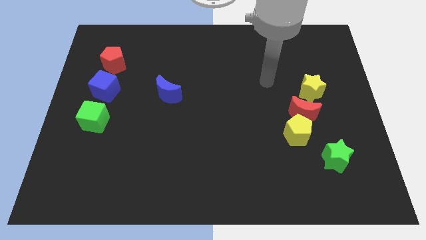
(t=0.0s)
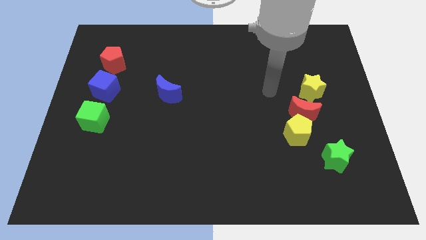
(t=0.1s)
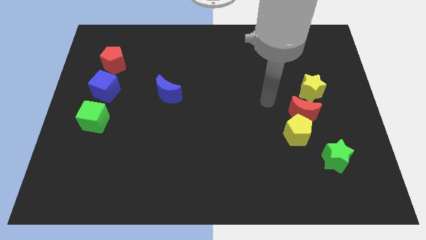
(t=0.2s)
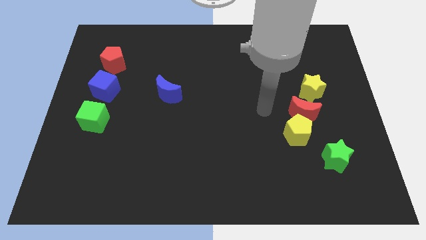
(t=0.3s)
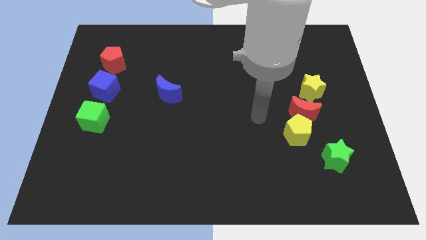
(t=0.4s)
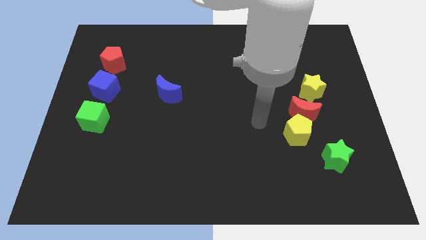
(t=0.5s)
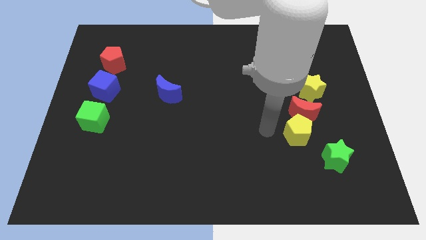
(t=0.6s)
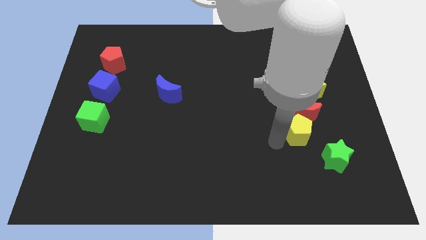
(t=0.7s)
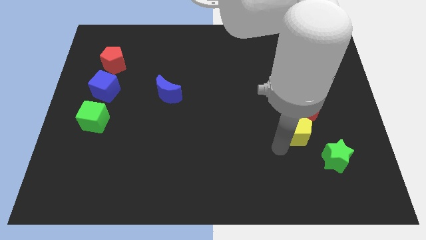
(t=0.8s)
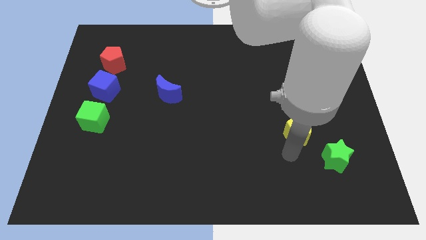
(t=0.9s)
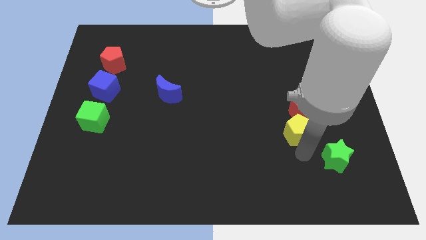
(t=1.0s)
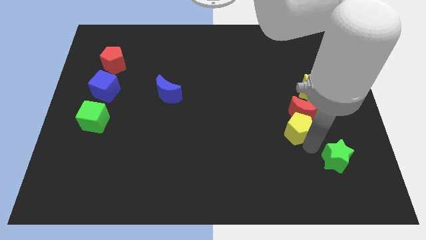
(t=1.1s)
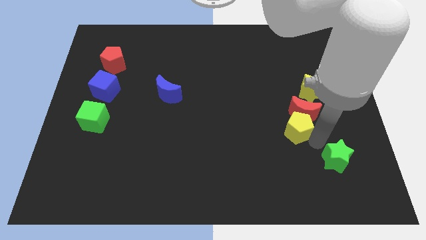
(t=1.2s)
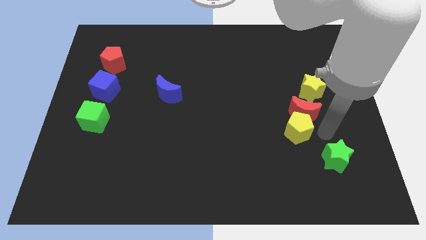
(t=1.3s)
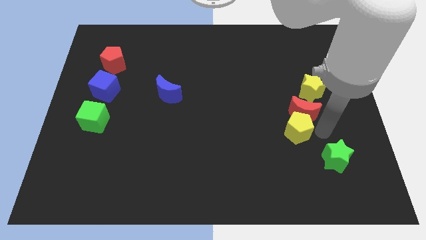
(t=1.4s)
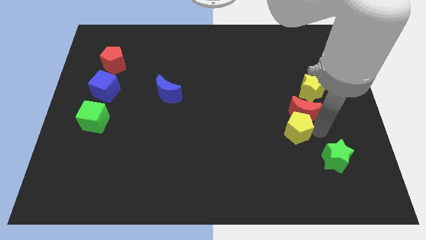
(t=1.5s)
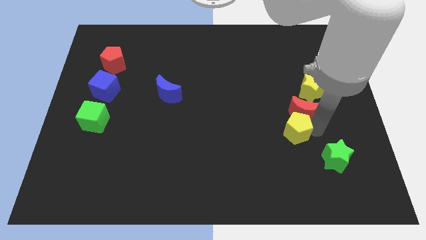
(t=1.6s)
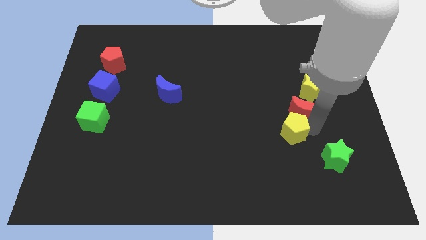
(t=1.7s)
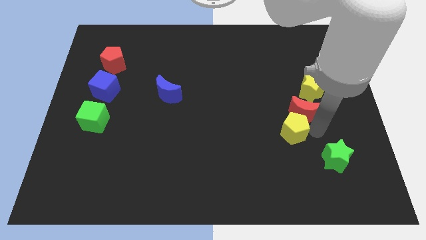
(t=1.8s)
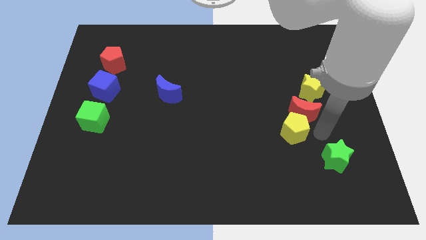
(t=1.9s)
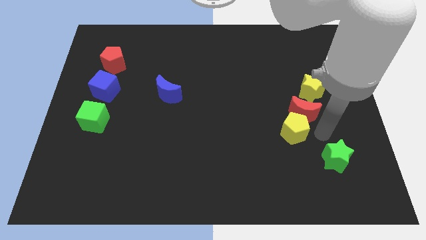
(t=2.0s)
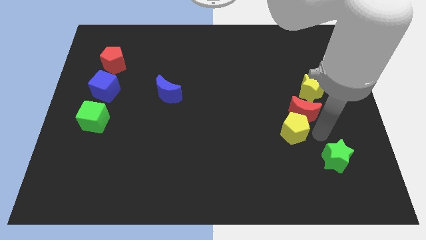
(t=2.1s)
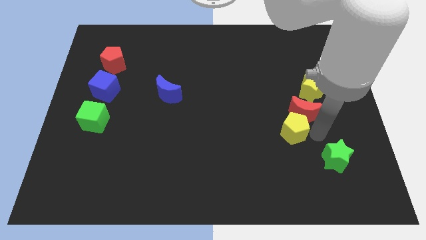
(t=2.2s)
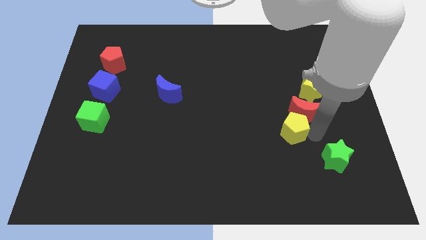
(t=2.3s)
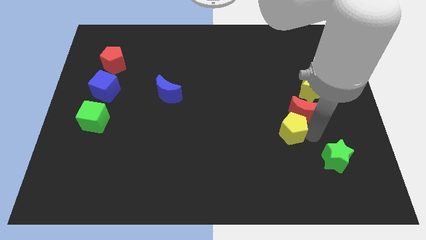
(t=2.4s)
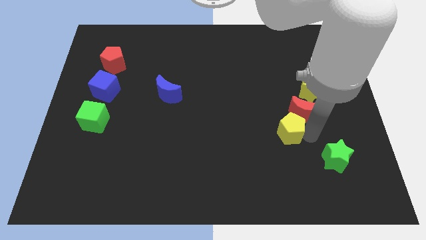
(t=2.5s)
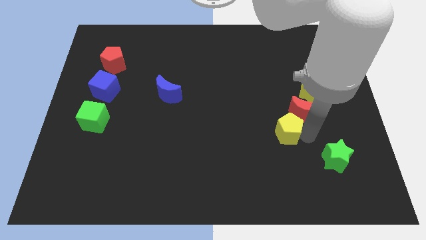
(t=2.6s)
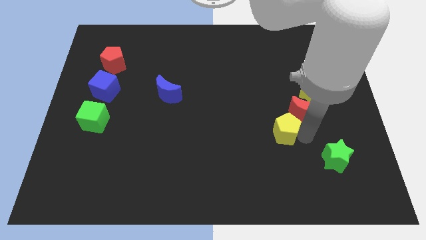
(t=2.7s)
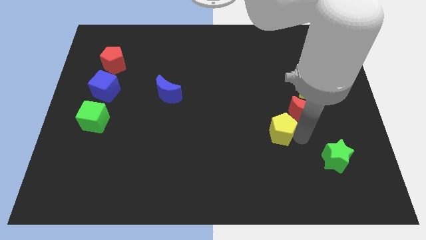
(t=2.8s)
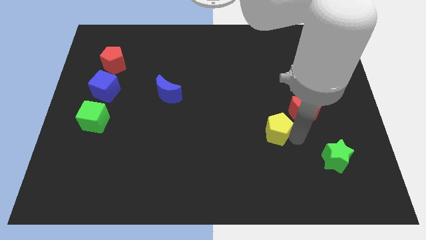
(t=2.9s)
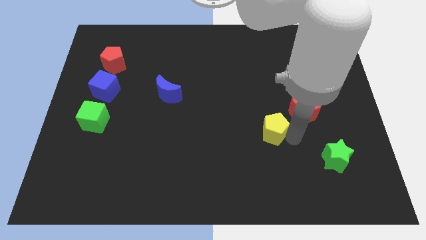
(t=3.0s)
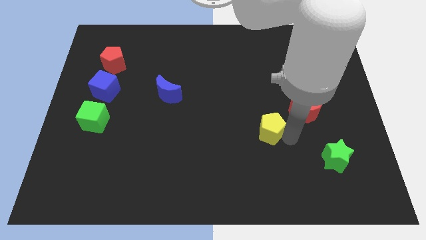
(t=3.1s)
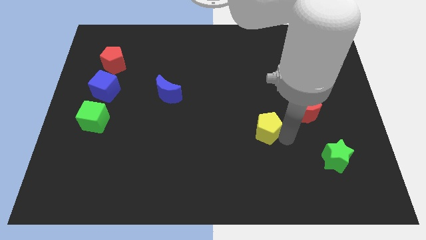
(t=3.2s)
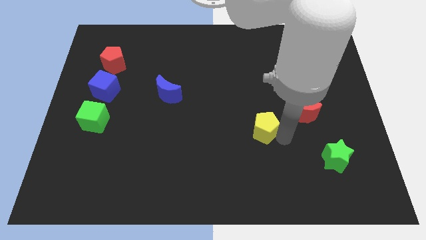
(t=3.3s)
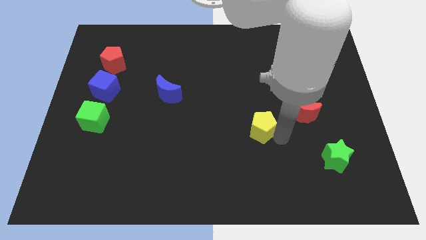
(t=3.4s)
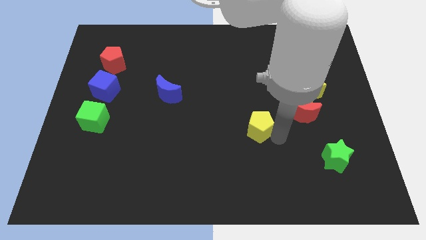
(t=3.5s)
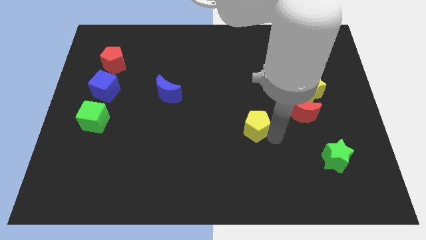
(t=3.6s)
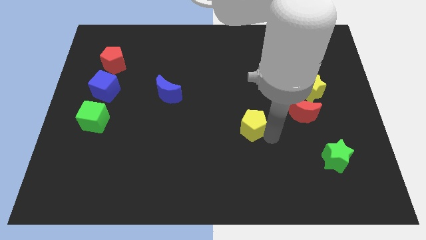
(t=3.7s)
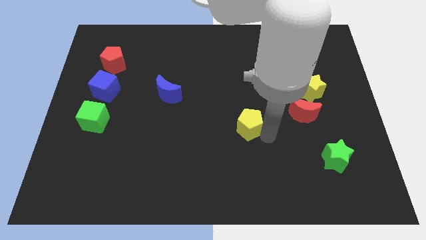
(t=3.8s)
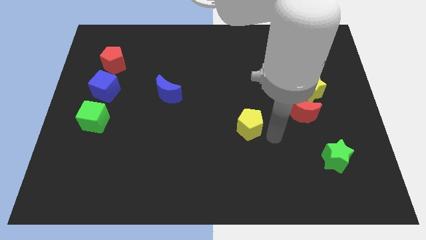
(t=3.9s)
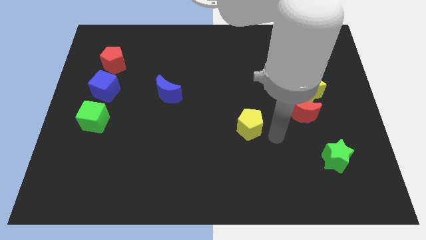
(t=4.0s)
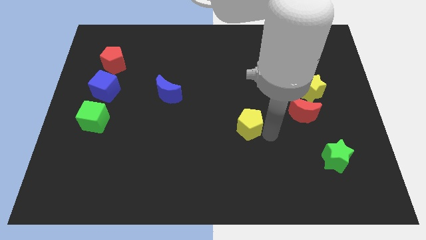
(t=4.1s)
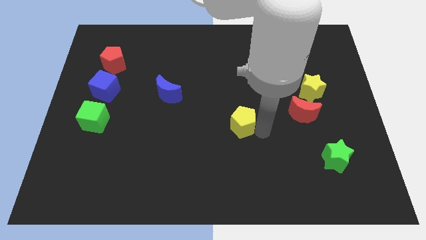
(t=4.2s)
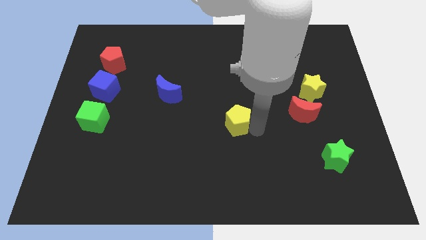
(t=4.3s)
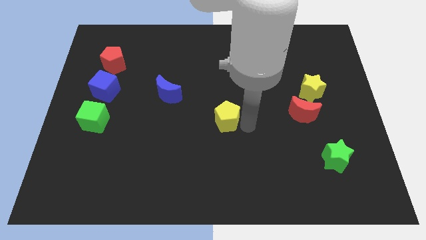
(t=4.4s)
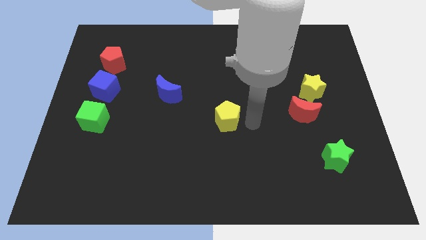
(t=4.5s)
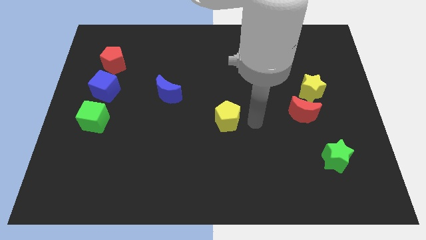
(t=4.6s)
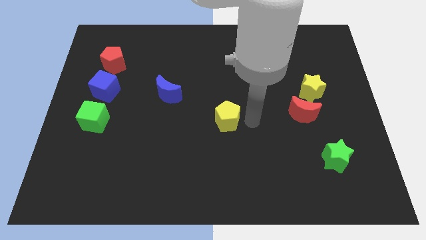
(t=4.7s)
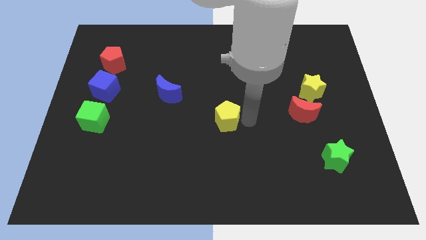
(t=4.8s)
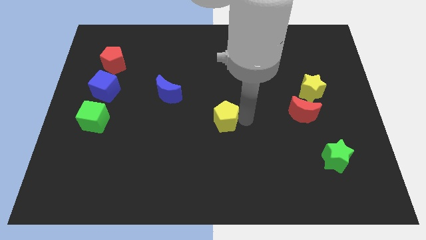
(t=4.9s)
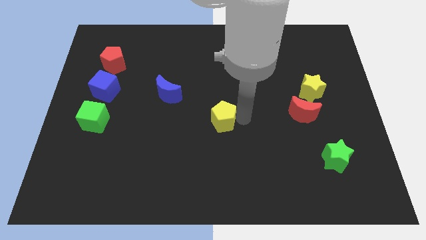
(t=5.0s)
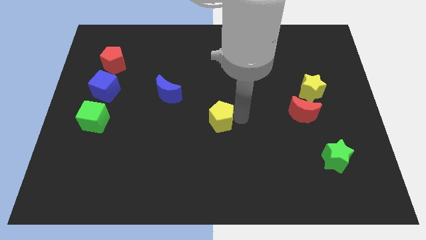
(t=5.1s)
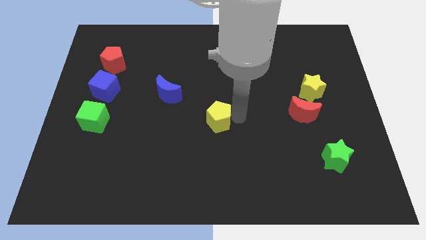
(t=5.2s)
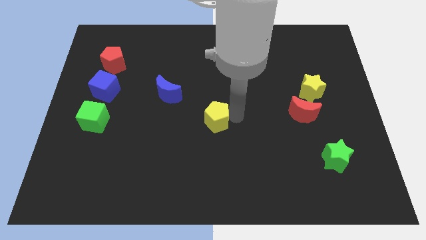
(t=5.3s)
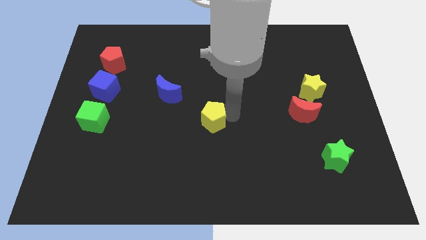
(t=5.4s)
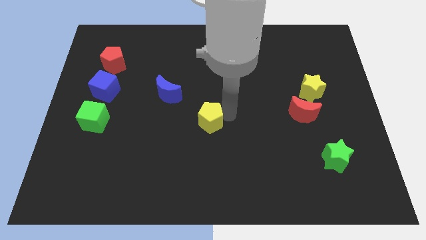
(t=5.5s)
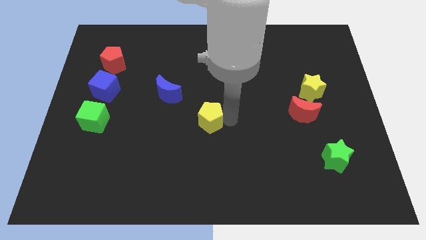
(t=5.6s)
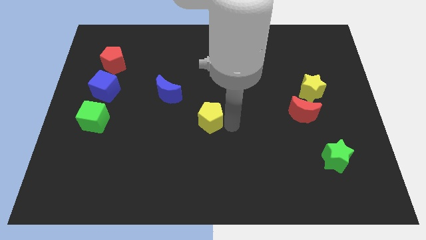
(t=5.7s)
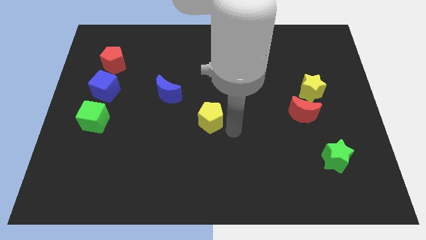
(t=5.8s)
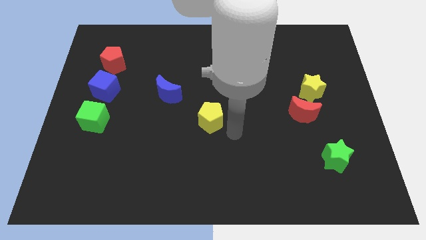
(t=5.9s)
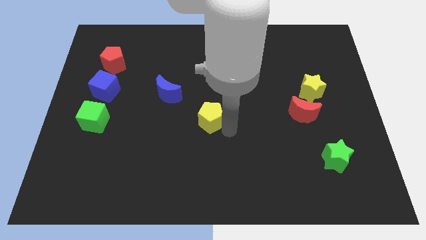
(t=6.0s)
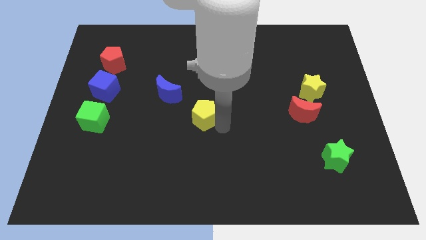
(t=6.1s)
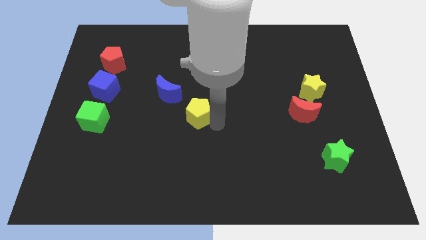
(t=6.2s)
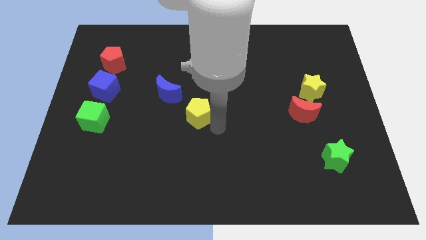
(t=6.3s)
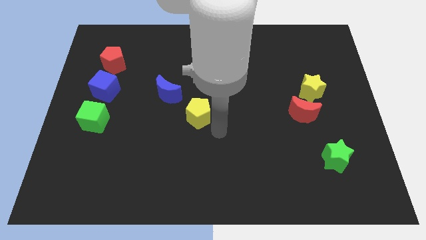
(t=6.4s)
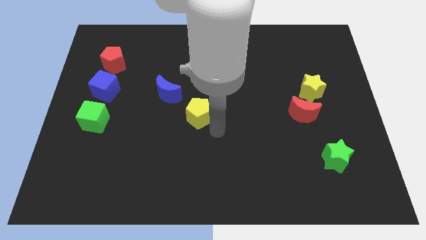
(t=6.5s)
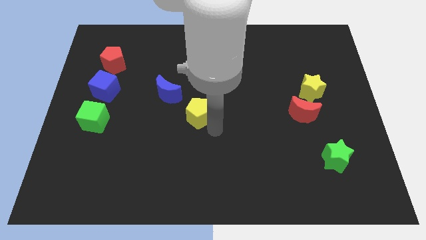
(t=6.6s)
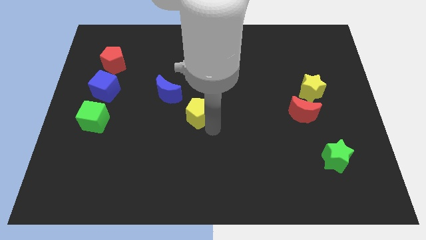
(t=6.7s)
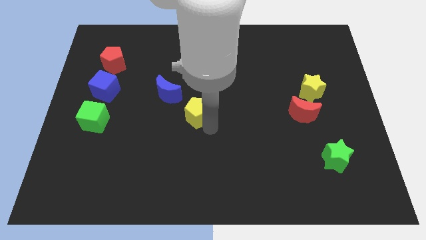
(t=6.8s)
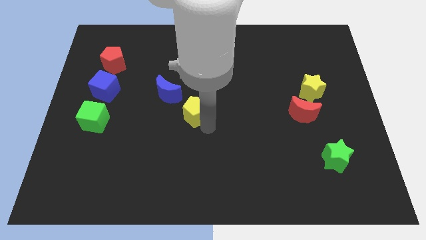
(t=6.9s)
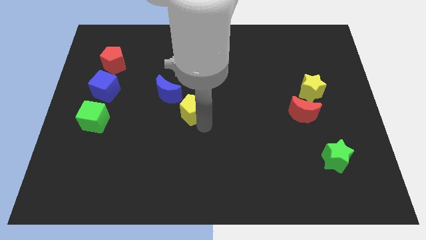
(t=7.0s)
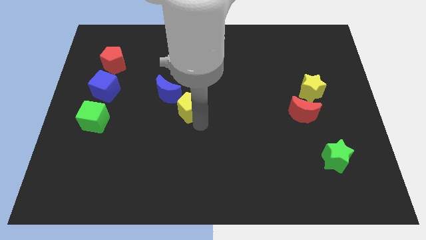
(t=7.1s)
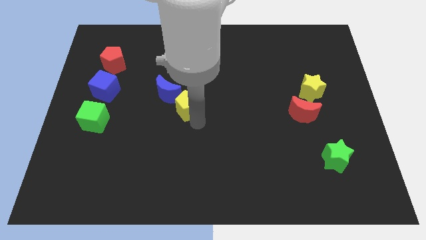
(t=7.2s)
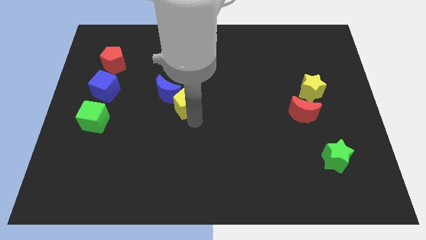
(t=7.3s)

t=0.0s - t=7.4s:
push the yellow pentagon close to the blue moon

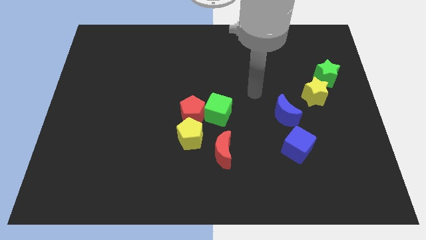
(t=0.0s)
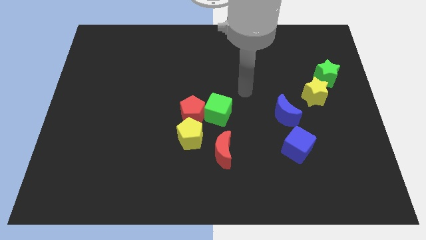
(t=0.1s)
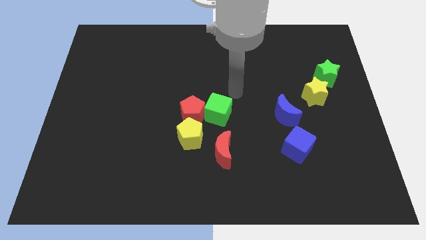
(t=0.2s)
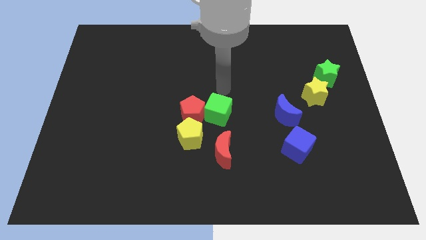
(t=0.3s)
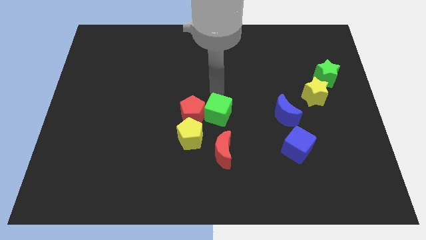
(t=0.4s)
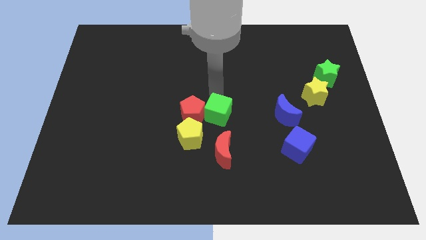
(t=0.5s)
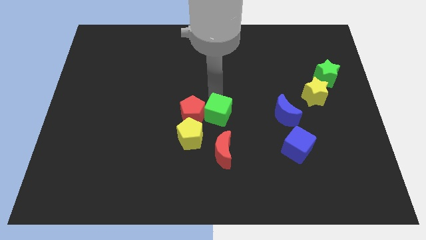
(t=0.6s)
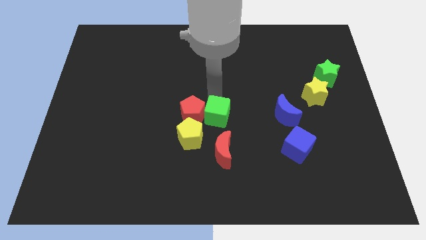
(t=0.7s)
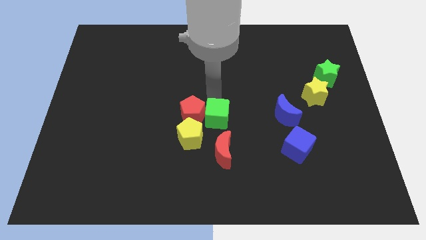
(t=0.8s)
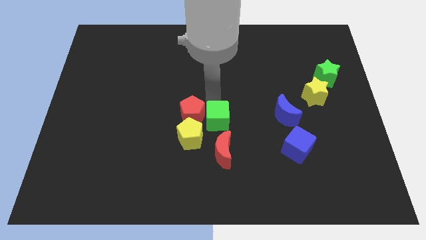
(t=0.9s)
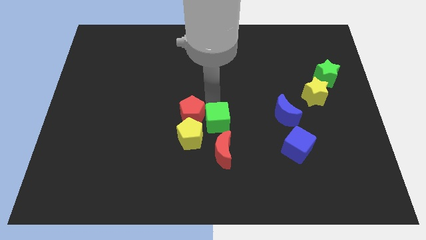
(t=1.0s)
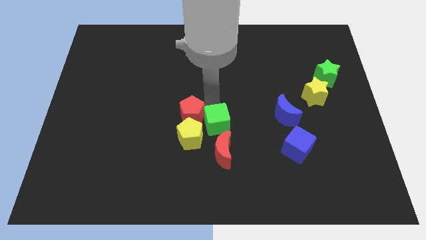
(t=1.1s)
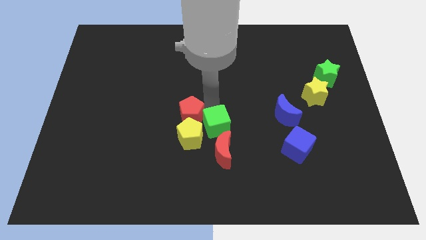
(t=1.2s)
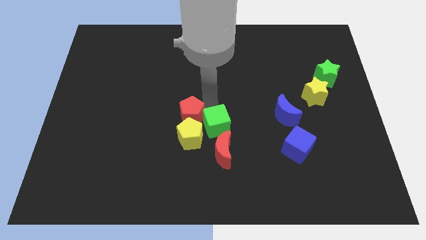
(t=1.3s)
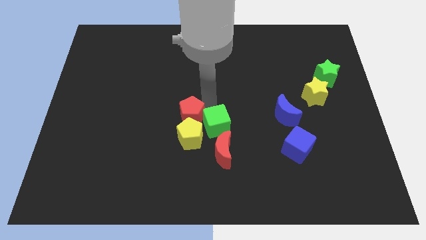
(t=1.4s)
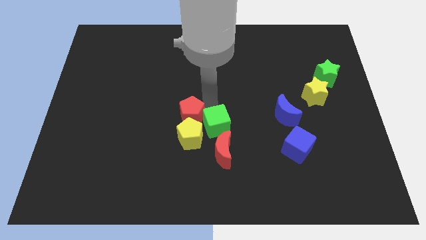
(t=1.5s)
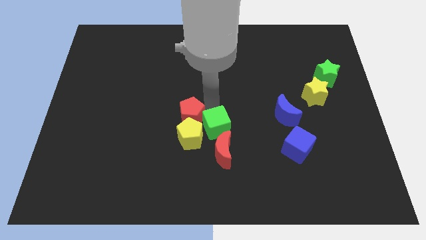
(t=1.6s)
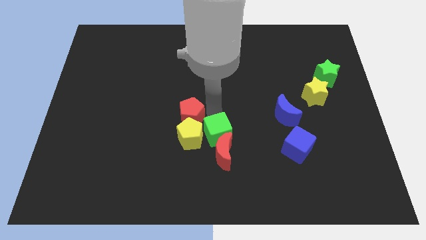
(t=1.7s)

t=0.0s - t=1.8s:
move the green cube close to the red moon
